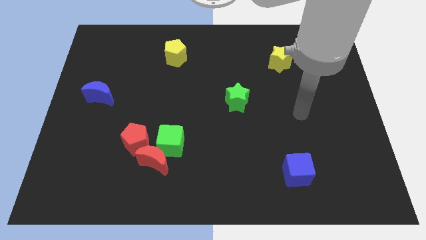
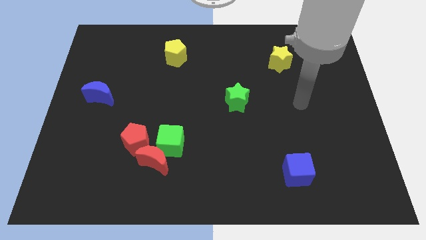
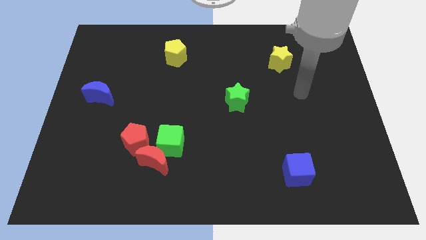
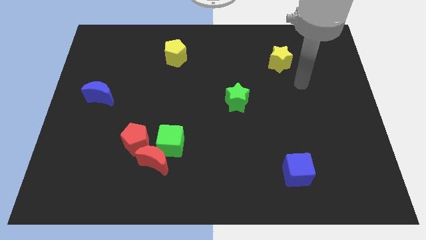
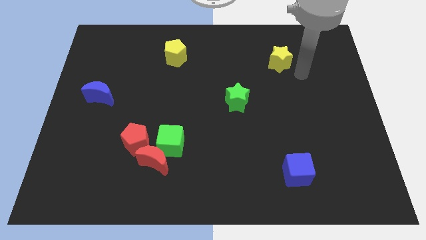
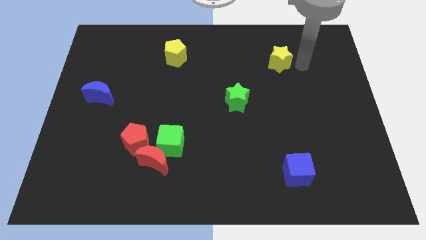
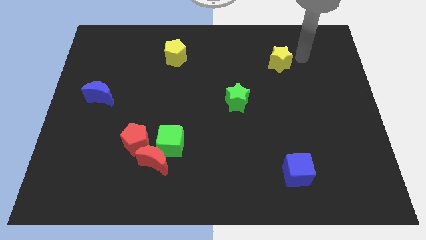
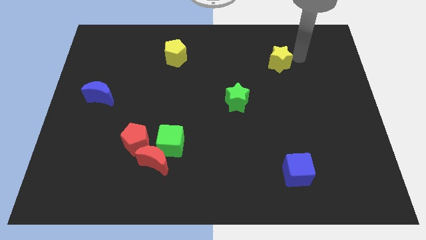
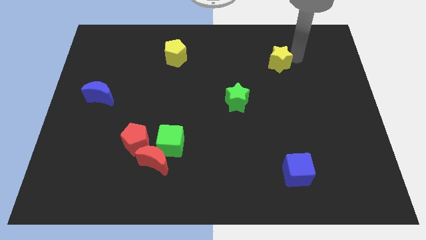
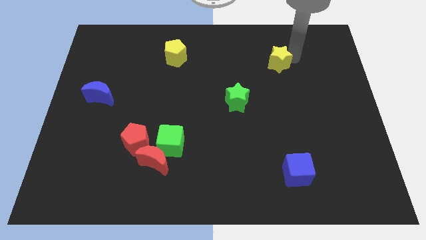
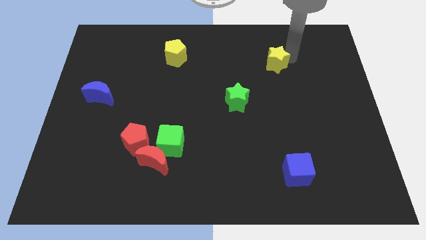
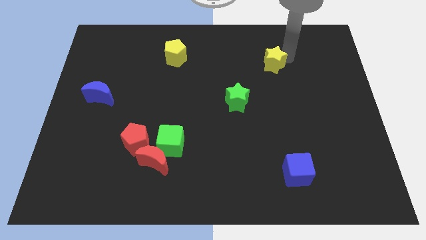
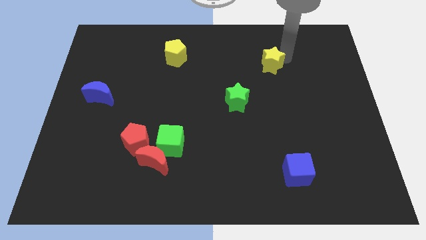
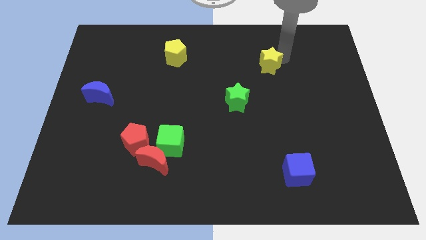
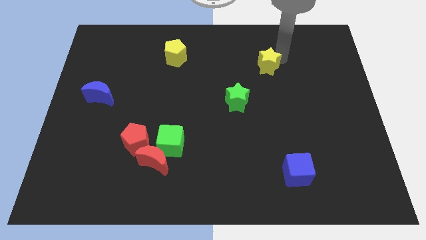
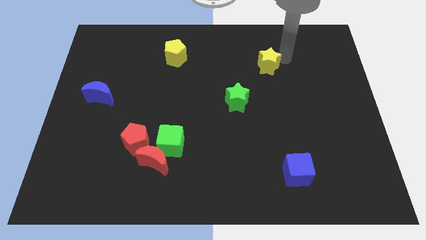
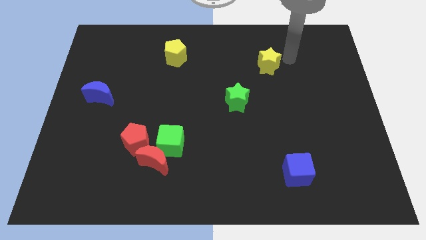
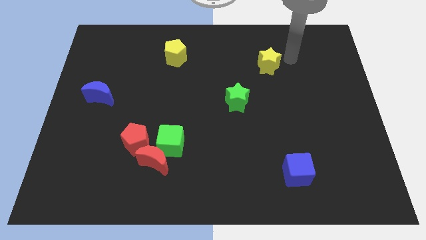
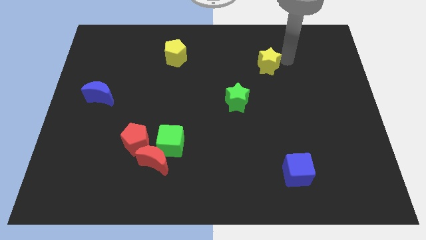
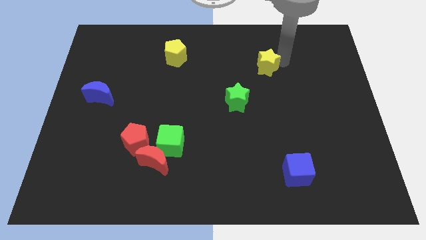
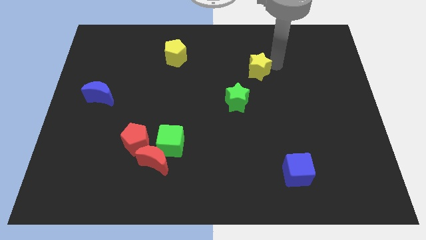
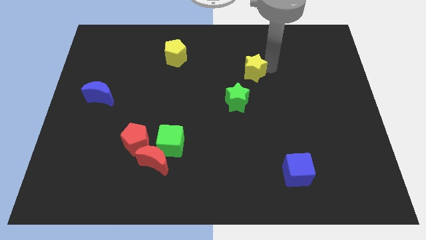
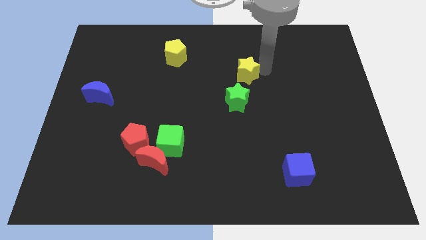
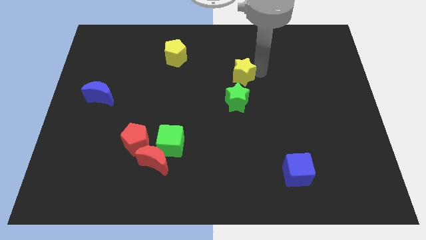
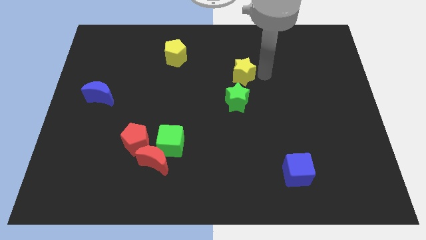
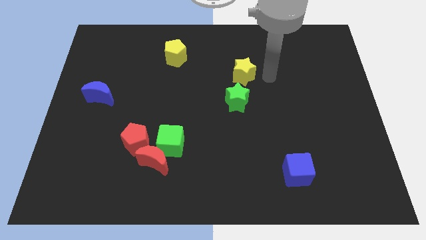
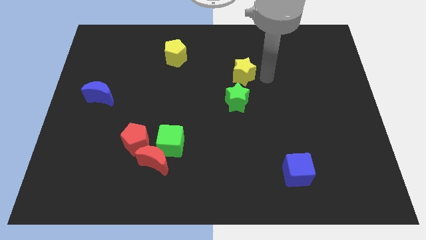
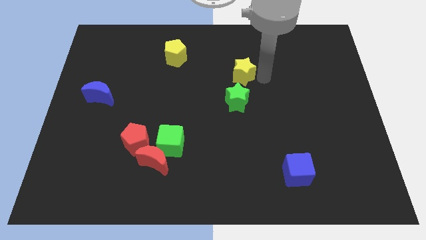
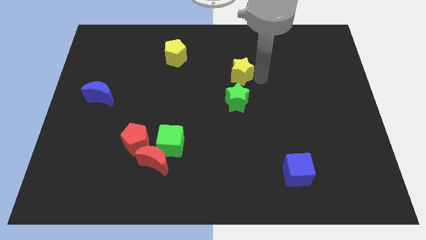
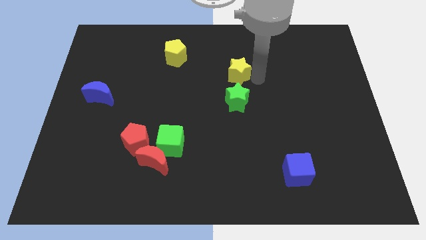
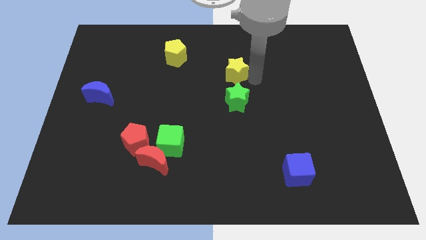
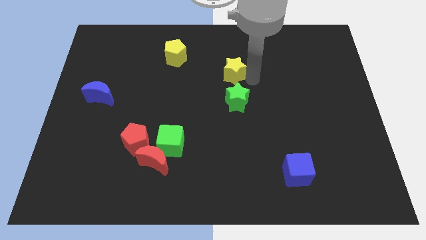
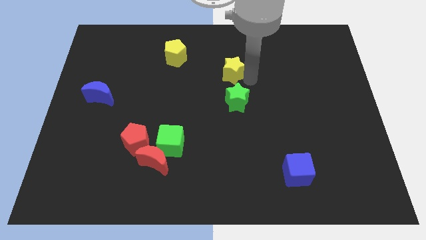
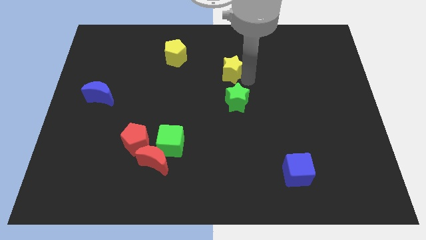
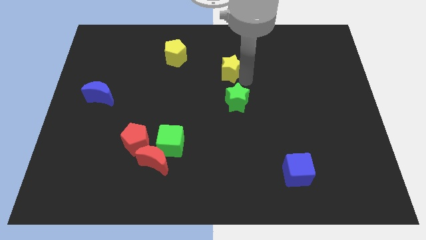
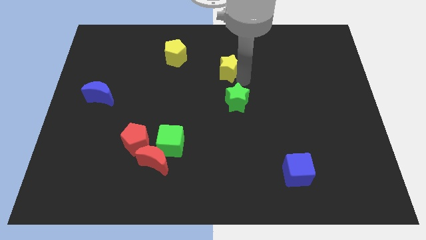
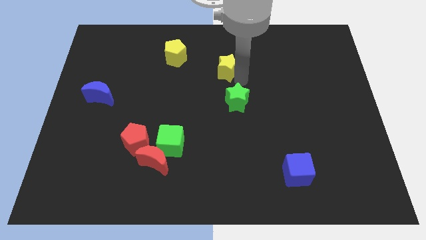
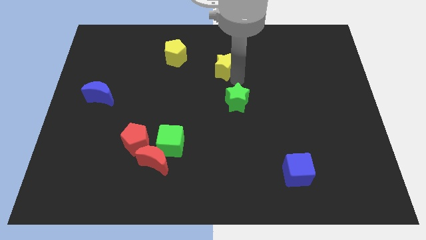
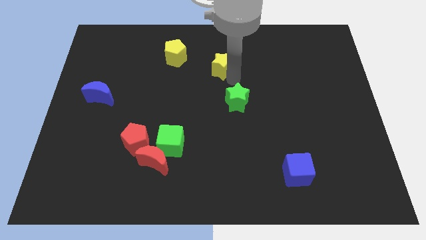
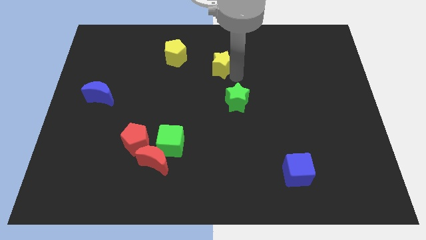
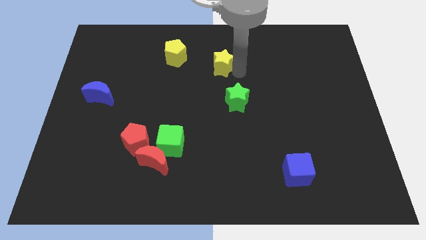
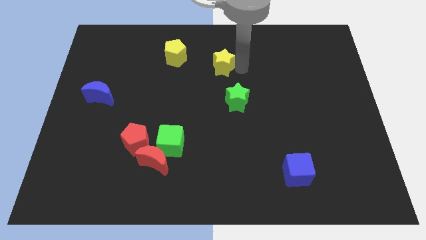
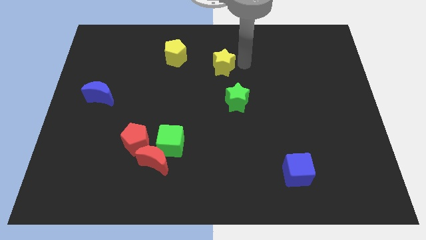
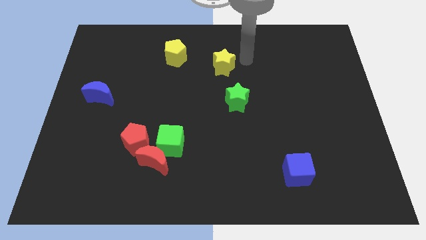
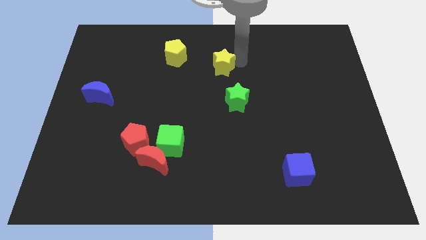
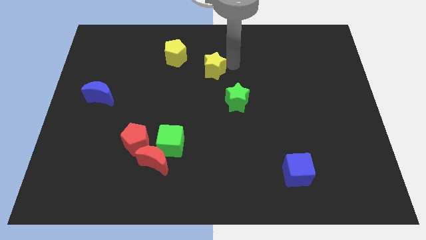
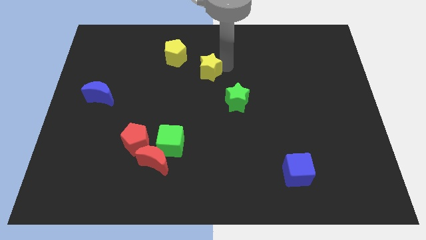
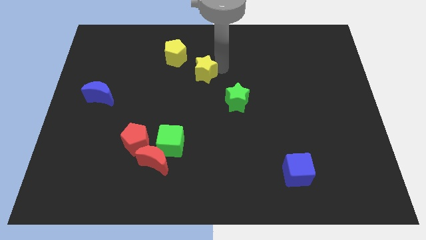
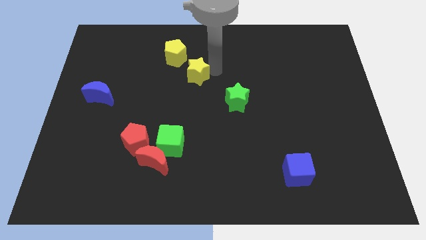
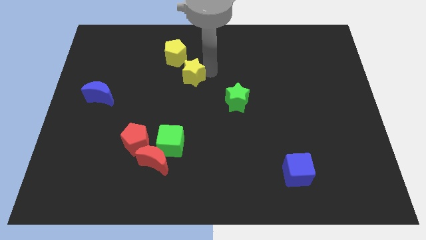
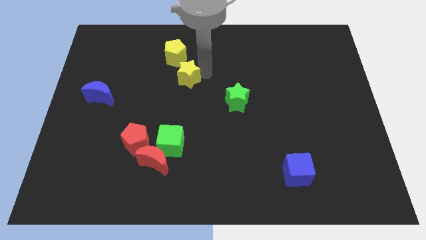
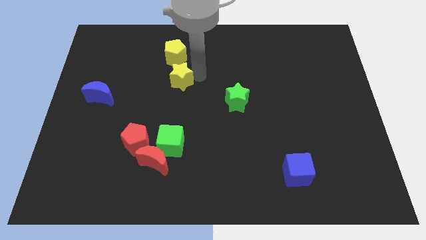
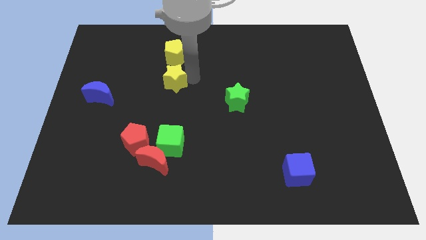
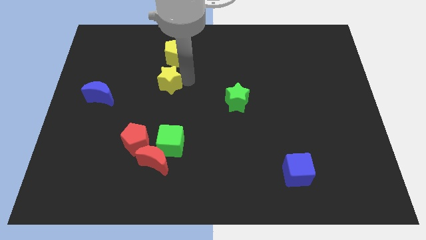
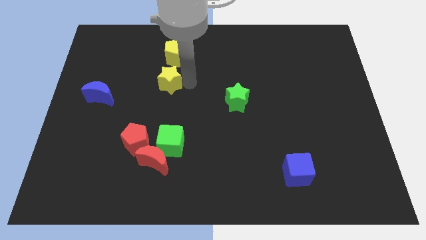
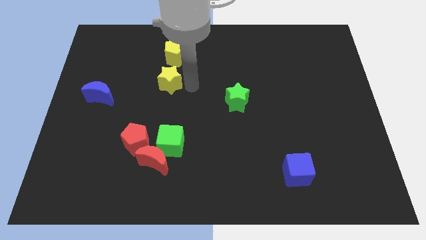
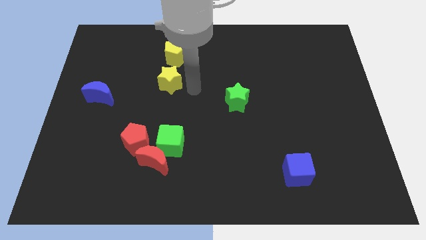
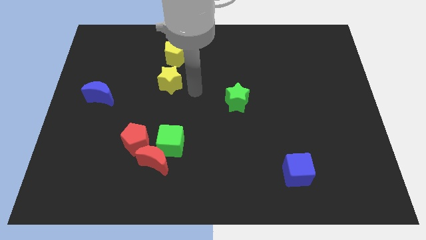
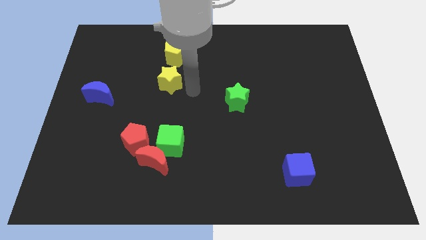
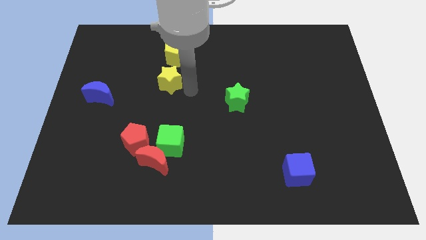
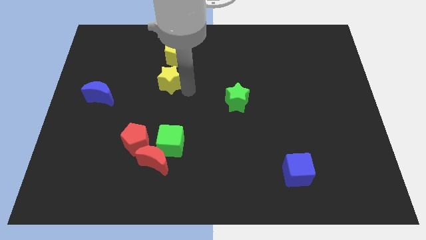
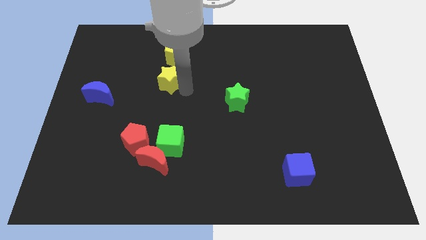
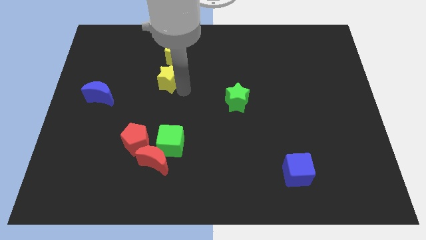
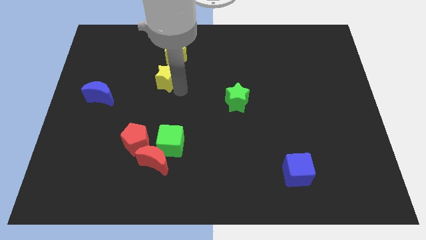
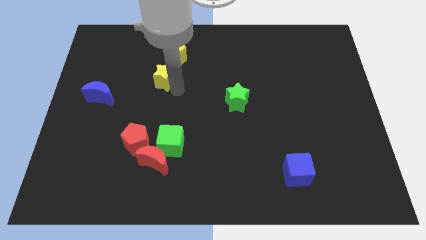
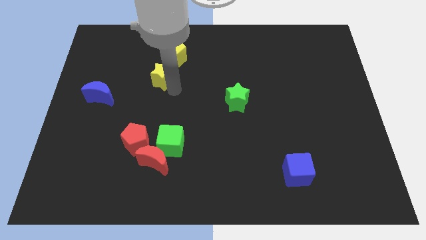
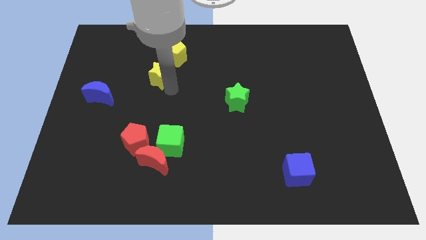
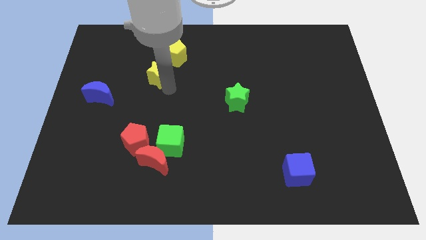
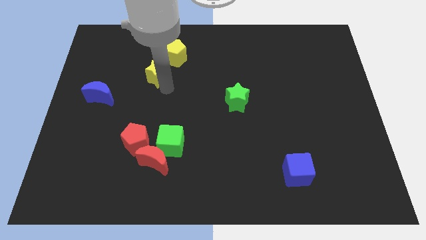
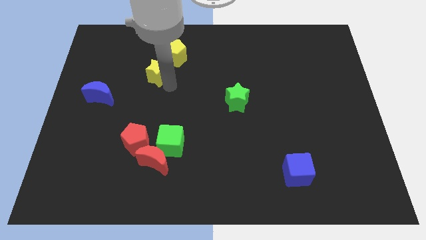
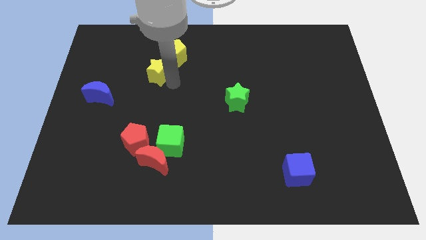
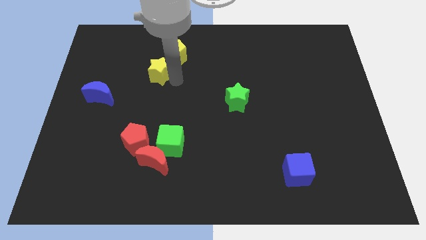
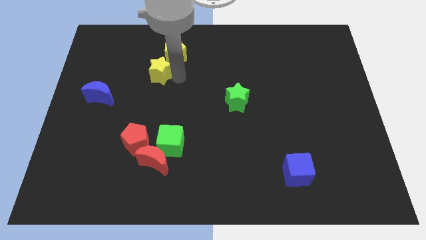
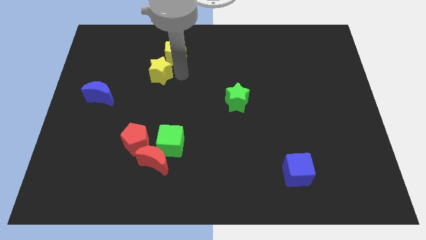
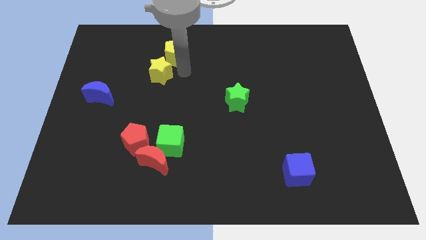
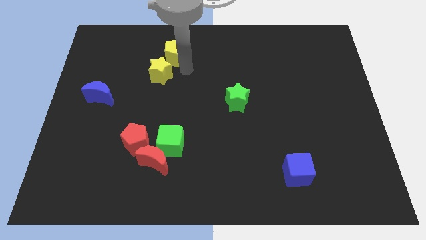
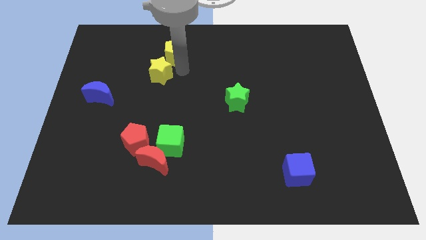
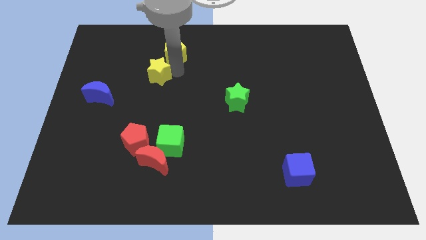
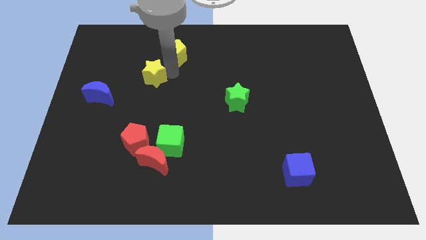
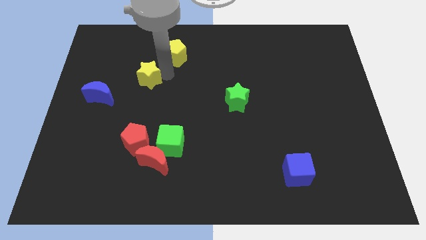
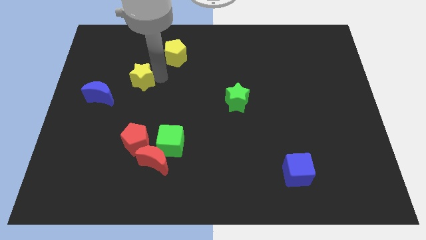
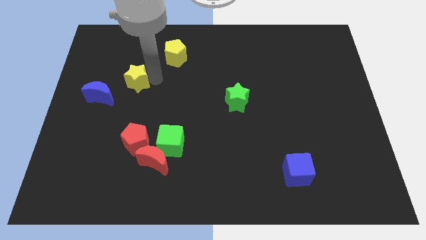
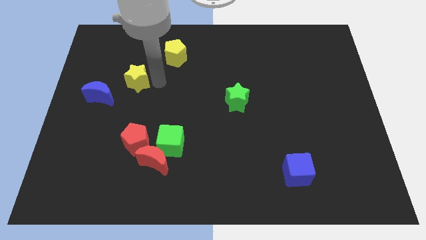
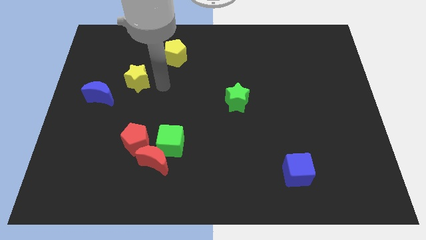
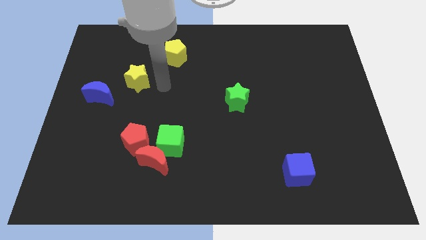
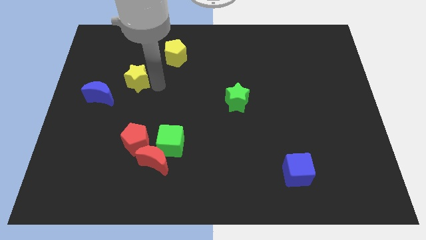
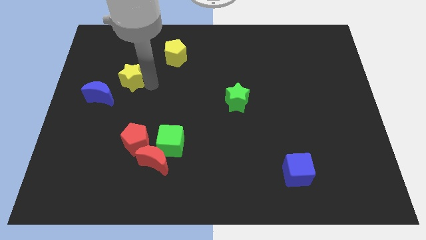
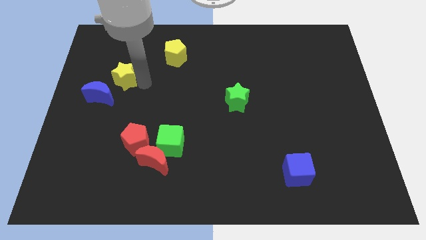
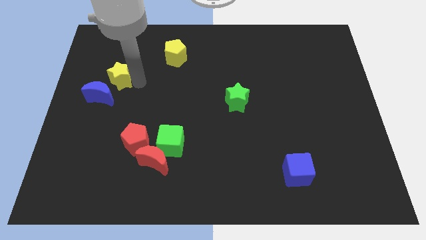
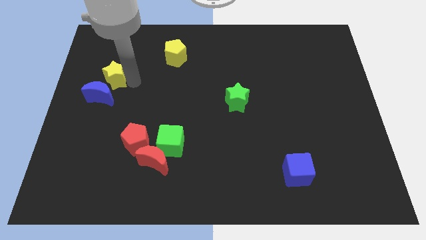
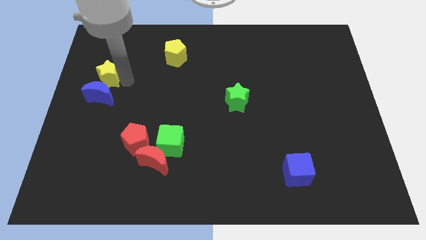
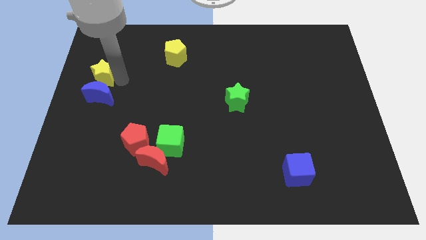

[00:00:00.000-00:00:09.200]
put the yellow star to the center left
